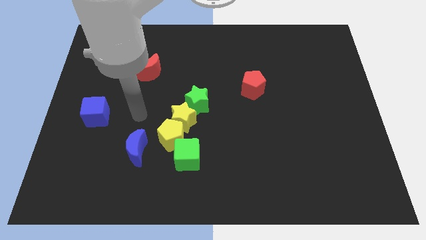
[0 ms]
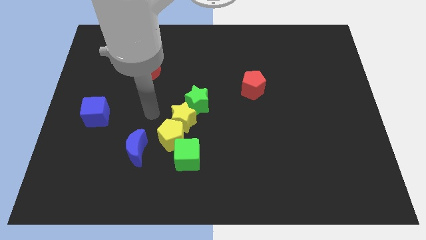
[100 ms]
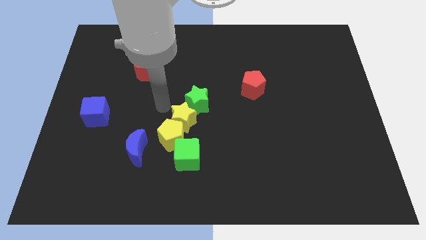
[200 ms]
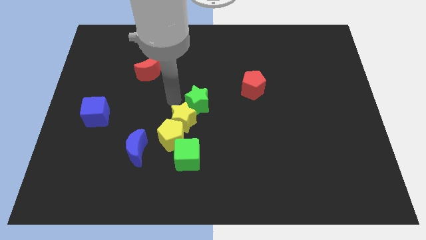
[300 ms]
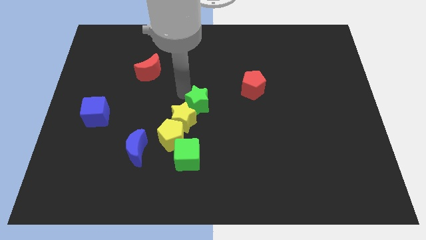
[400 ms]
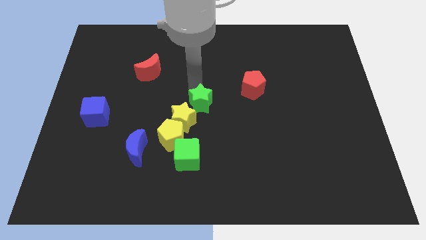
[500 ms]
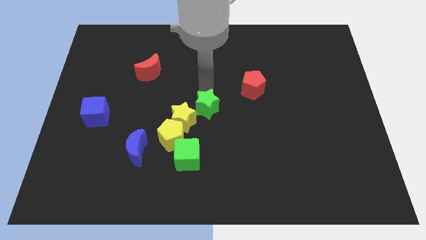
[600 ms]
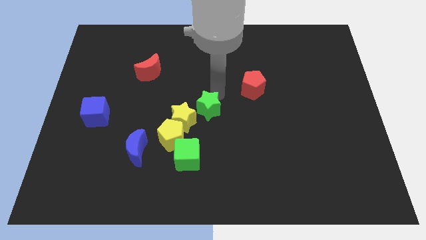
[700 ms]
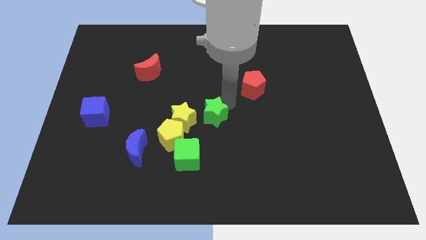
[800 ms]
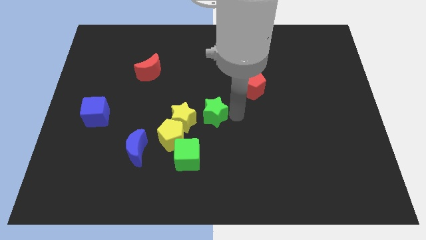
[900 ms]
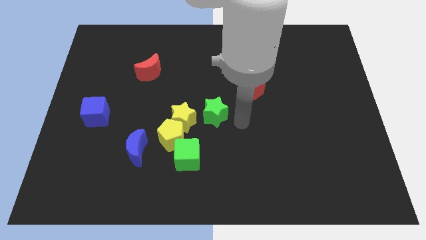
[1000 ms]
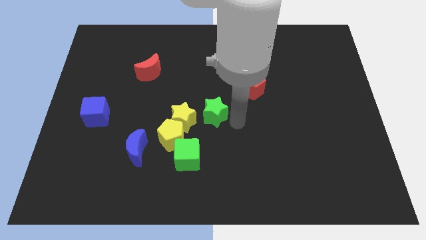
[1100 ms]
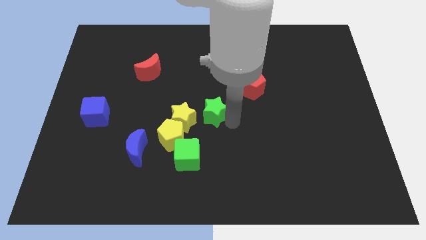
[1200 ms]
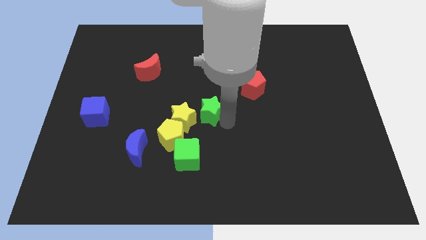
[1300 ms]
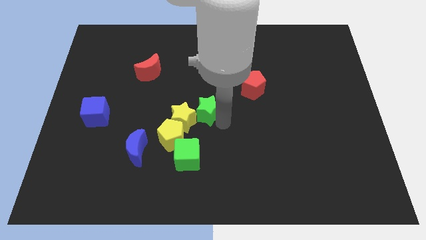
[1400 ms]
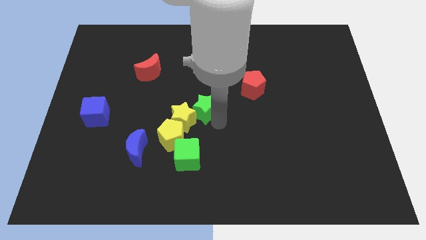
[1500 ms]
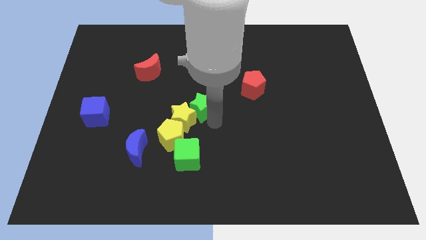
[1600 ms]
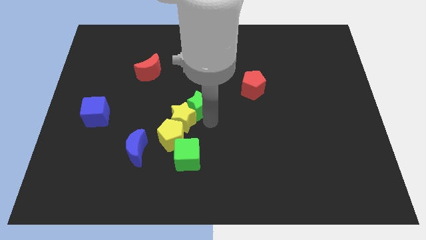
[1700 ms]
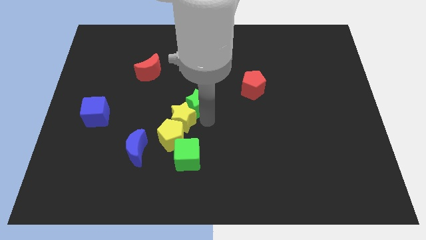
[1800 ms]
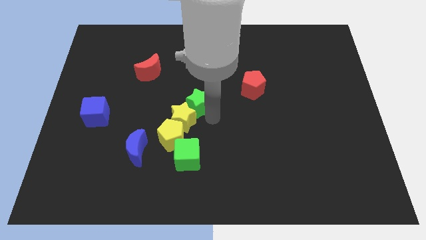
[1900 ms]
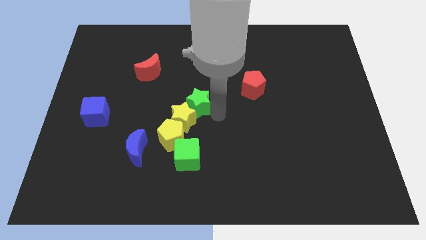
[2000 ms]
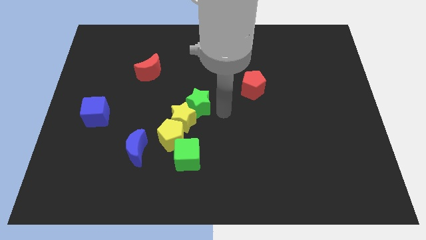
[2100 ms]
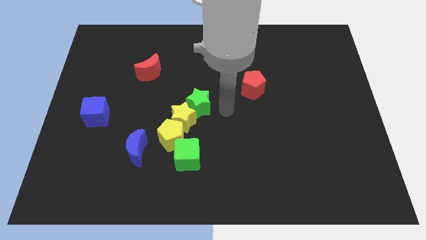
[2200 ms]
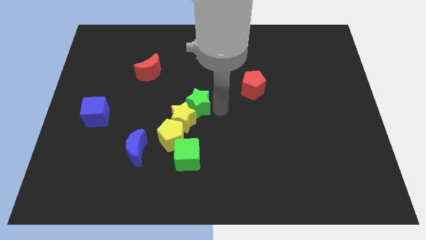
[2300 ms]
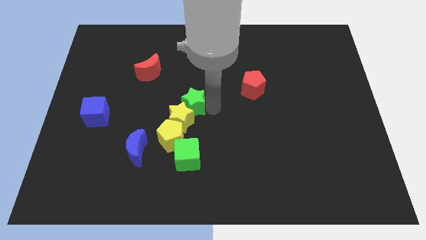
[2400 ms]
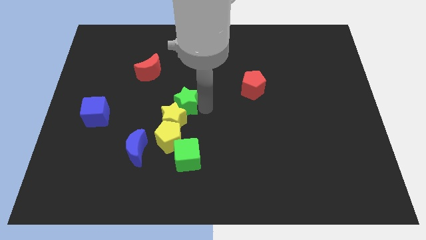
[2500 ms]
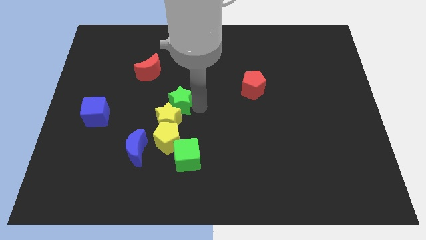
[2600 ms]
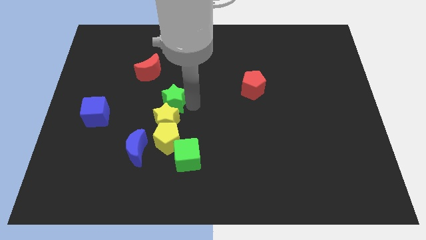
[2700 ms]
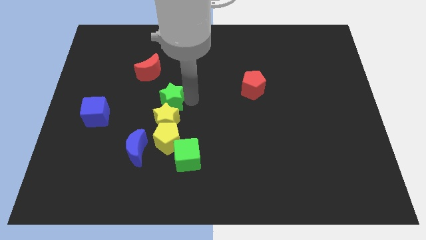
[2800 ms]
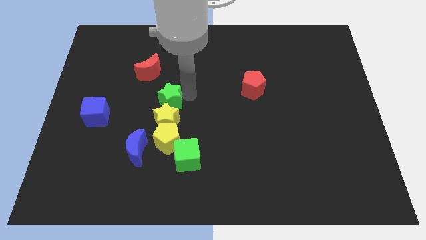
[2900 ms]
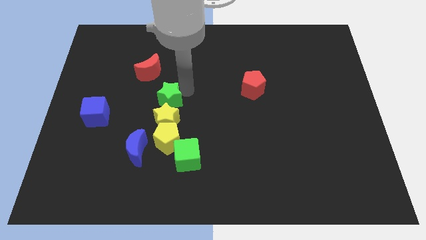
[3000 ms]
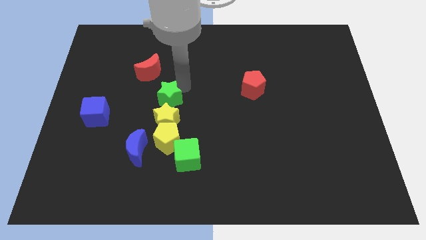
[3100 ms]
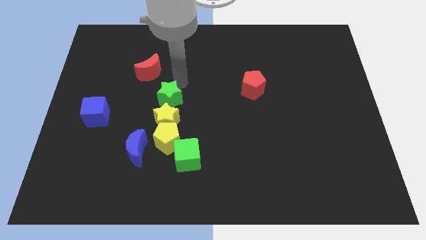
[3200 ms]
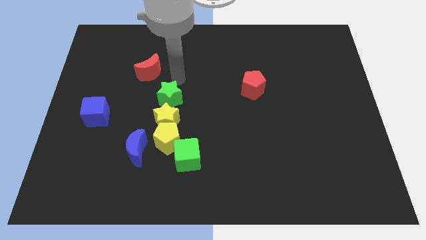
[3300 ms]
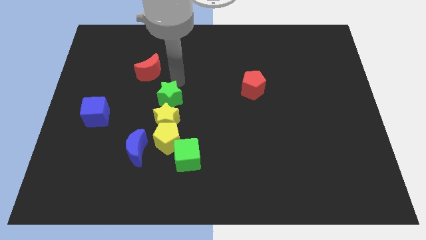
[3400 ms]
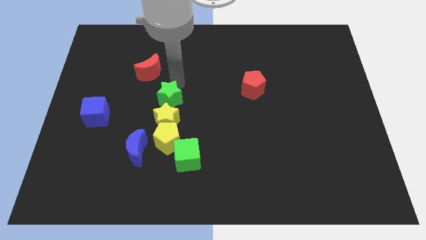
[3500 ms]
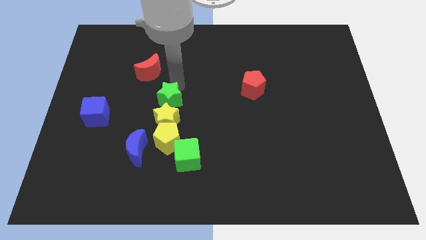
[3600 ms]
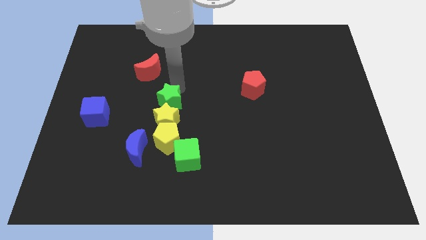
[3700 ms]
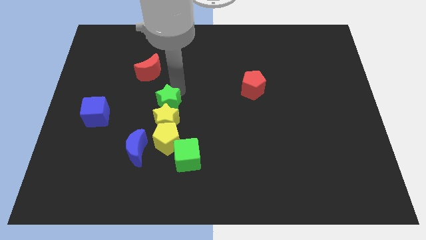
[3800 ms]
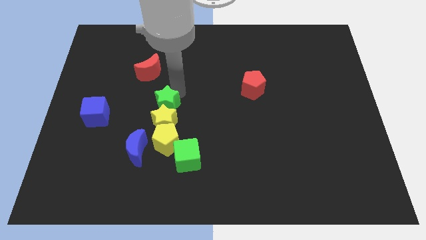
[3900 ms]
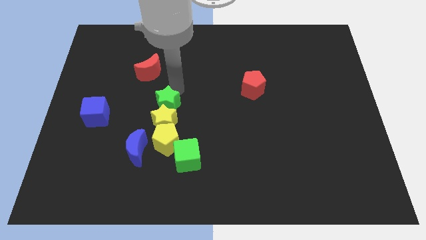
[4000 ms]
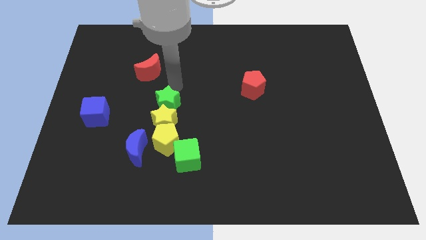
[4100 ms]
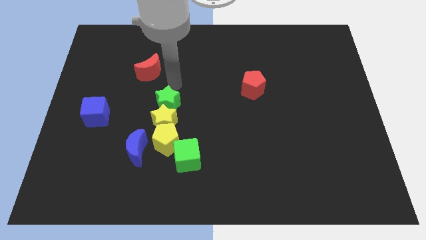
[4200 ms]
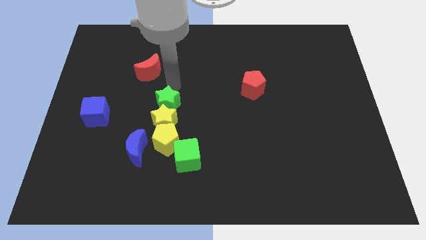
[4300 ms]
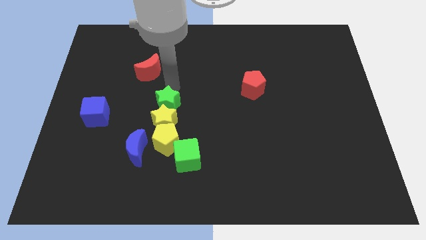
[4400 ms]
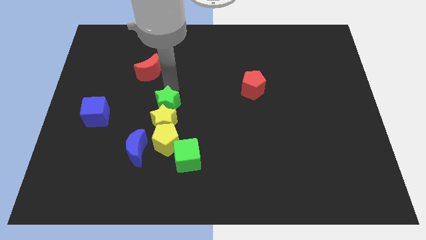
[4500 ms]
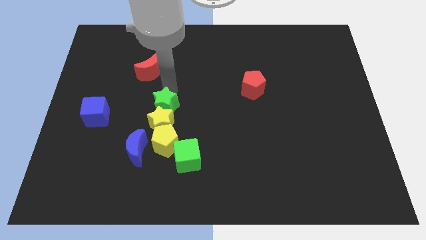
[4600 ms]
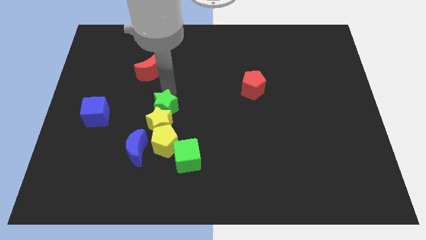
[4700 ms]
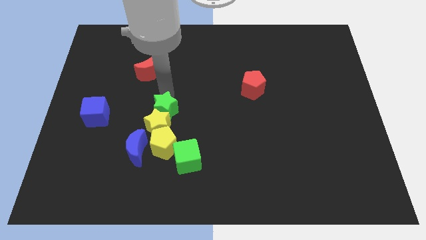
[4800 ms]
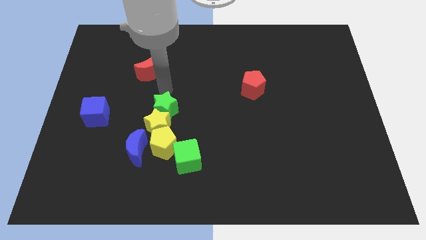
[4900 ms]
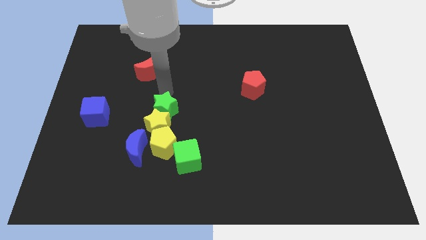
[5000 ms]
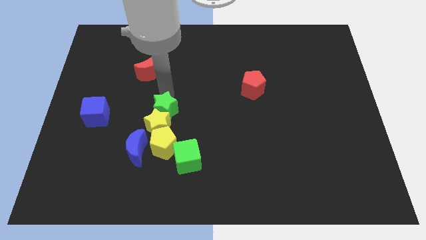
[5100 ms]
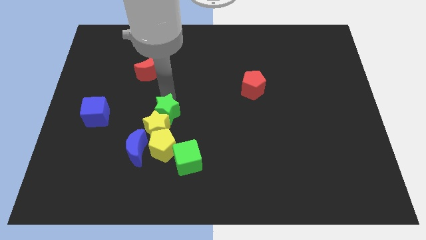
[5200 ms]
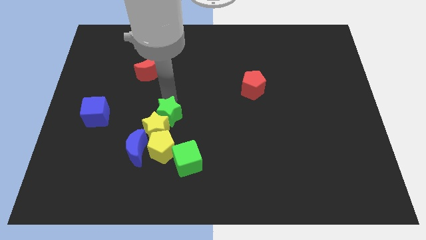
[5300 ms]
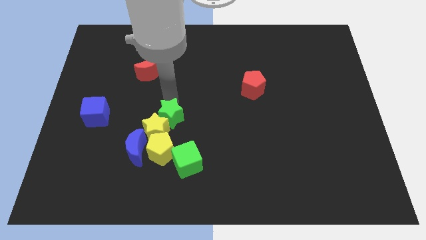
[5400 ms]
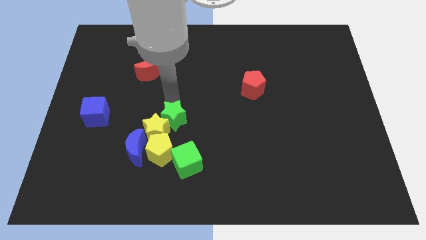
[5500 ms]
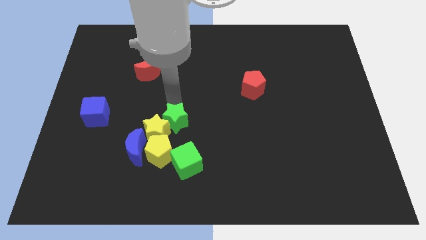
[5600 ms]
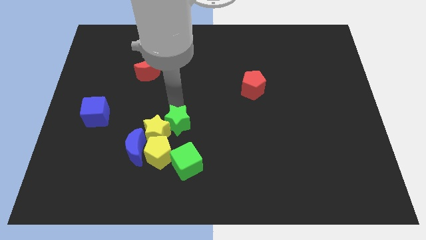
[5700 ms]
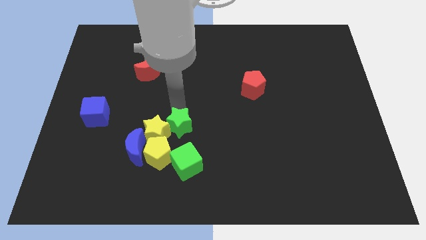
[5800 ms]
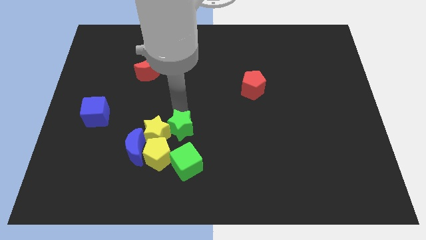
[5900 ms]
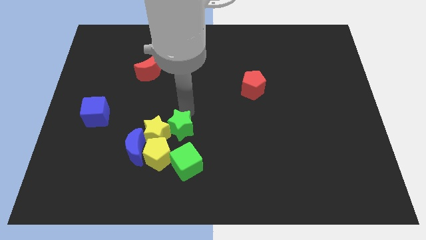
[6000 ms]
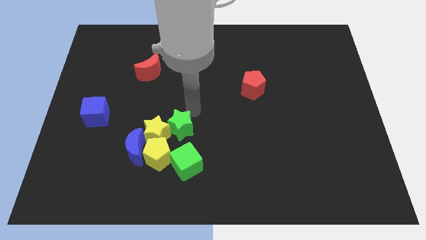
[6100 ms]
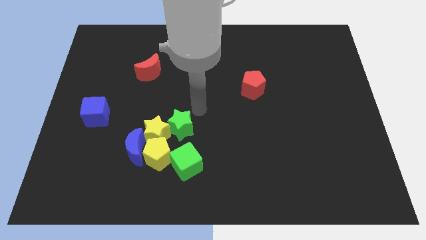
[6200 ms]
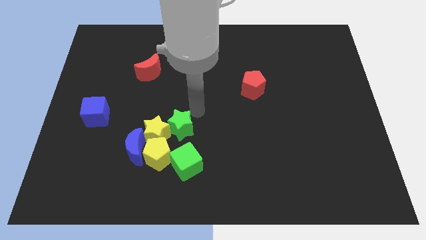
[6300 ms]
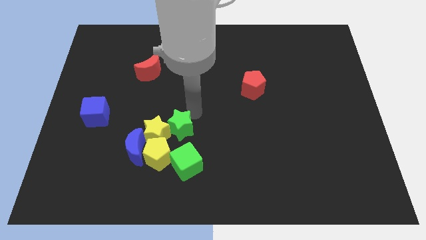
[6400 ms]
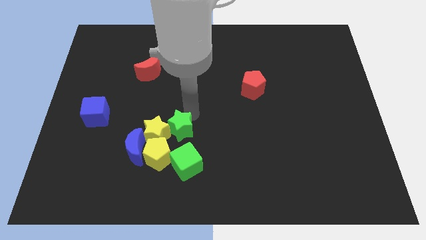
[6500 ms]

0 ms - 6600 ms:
move the green star to the top left side of the green cube

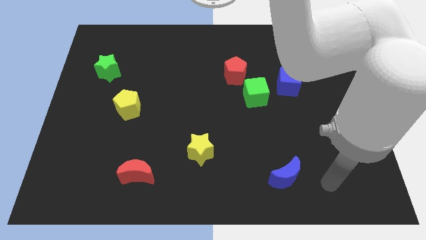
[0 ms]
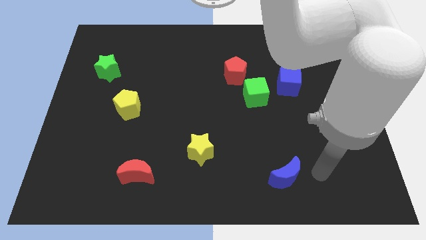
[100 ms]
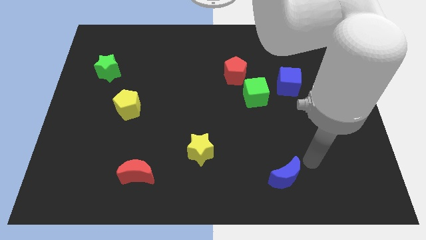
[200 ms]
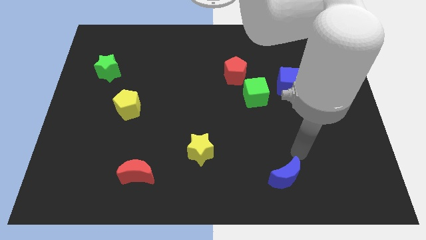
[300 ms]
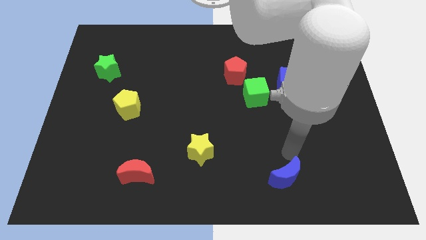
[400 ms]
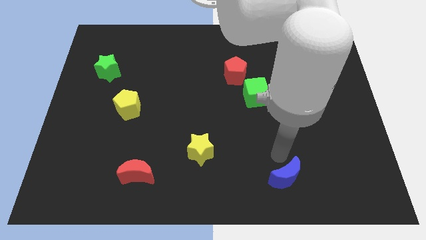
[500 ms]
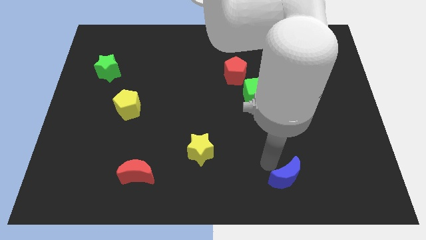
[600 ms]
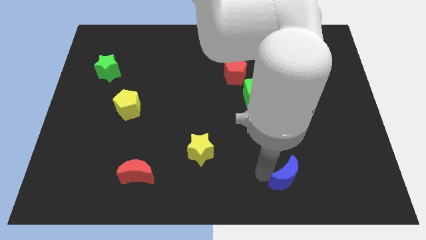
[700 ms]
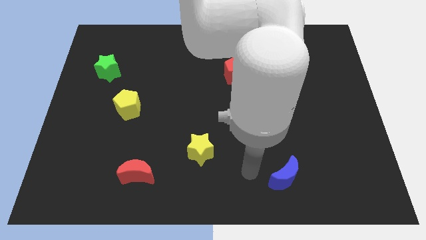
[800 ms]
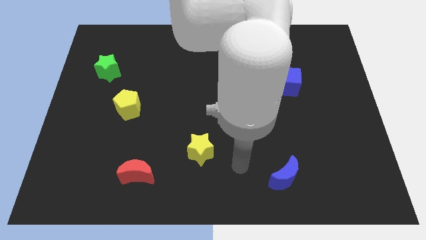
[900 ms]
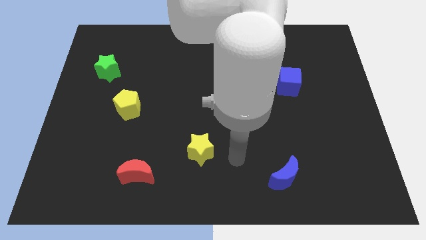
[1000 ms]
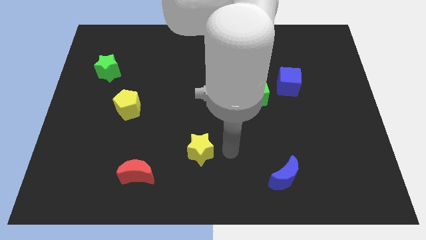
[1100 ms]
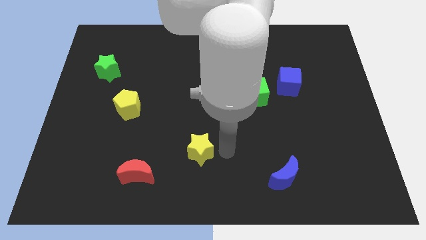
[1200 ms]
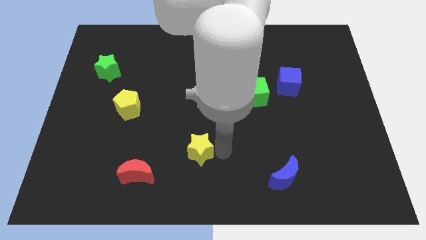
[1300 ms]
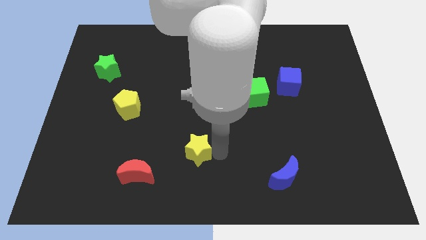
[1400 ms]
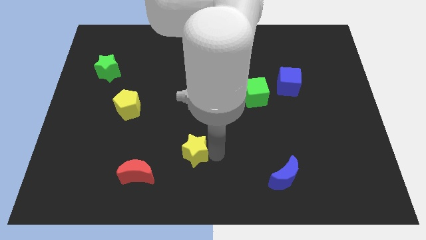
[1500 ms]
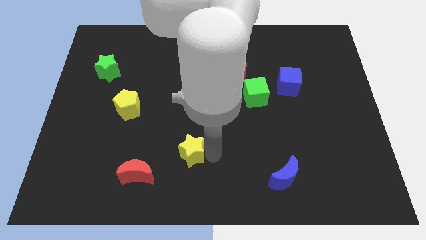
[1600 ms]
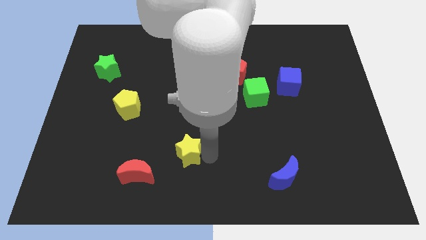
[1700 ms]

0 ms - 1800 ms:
push the yellow star to the top right of the red moon
